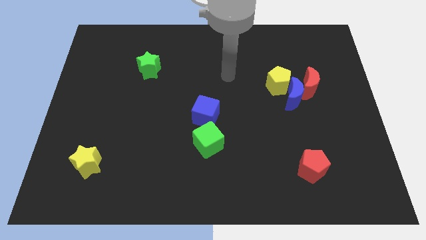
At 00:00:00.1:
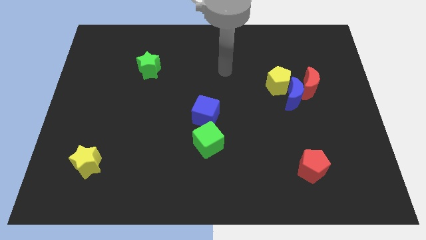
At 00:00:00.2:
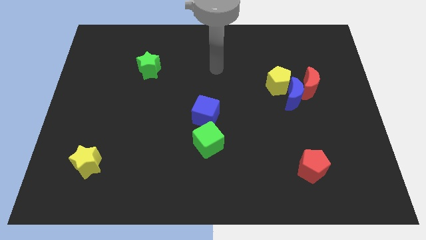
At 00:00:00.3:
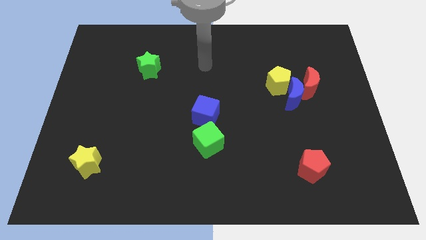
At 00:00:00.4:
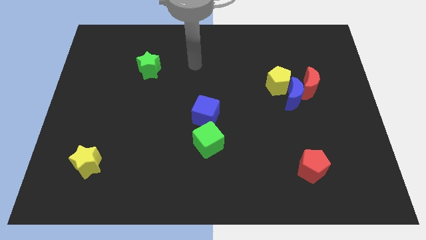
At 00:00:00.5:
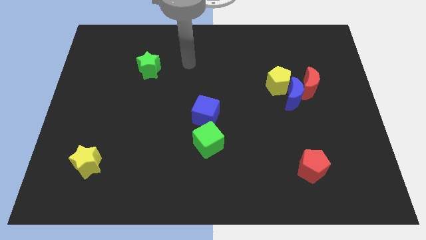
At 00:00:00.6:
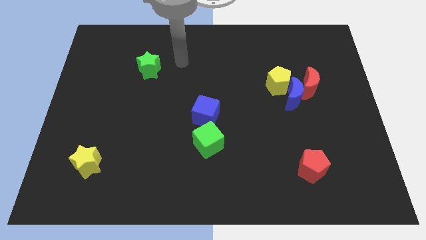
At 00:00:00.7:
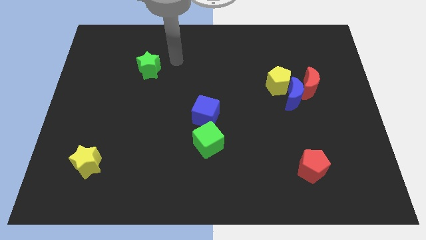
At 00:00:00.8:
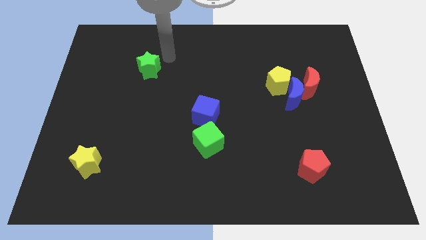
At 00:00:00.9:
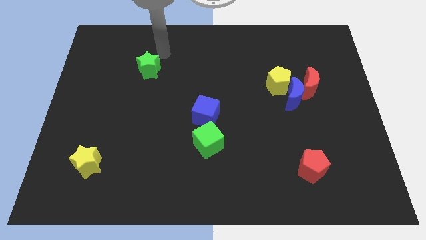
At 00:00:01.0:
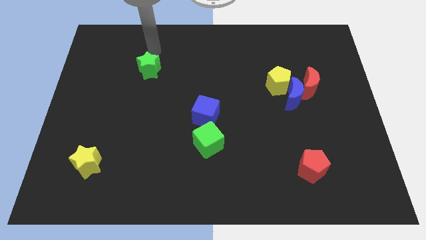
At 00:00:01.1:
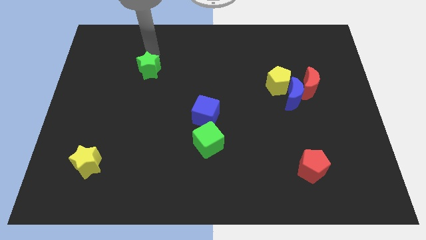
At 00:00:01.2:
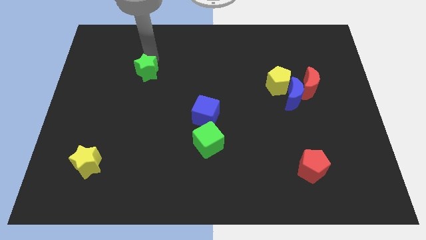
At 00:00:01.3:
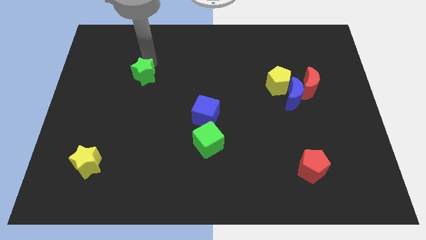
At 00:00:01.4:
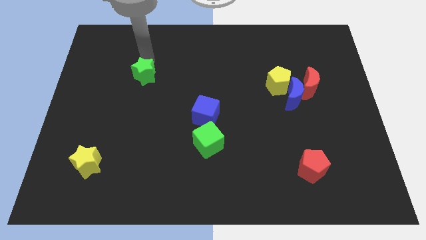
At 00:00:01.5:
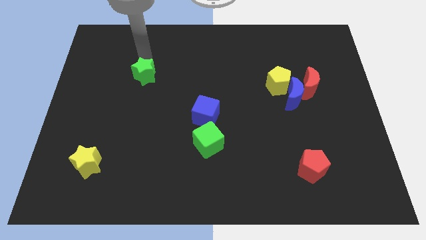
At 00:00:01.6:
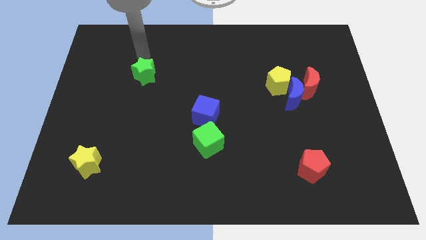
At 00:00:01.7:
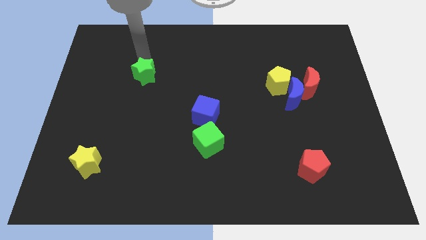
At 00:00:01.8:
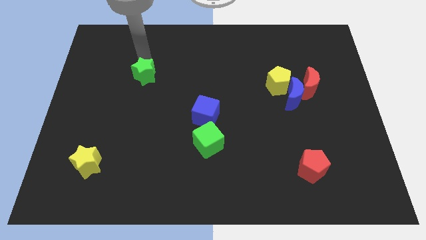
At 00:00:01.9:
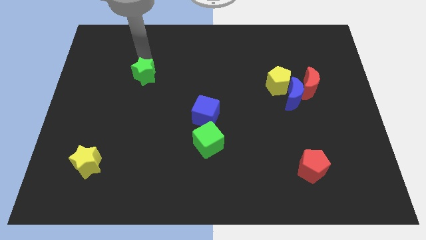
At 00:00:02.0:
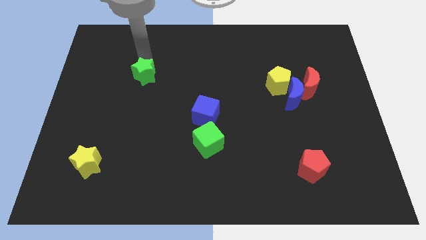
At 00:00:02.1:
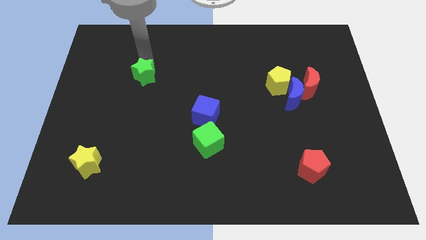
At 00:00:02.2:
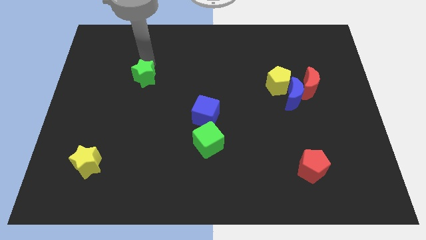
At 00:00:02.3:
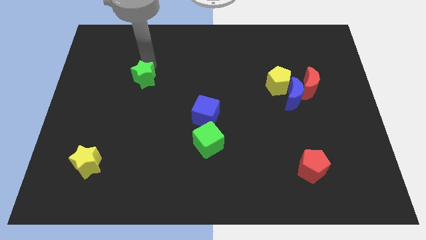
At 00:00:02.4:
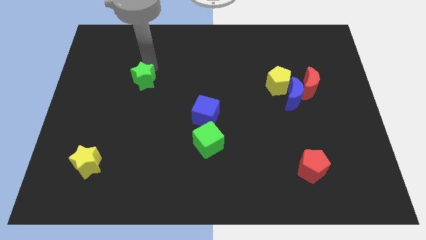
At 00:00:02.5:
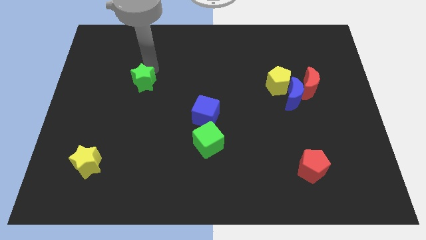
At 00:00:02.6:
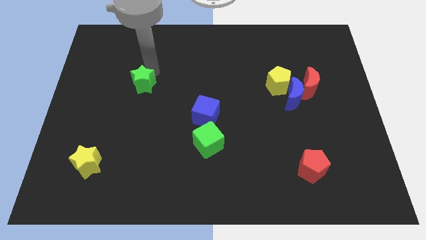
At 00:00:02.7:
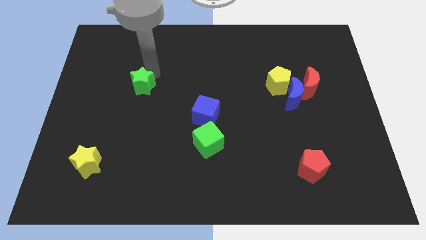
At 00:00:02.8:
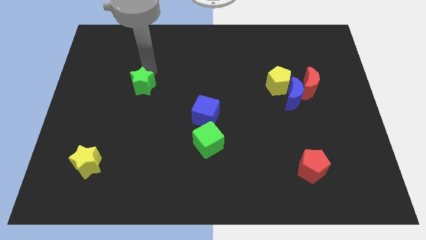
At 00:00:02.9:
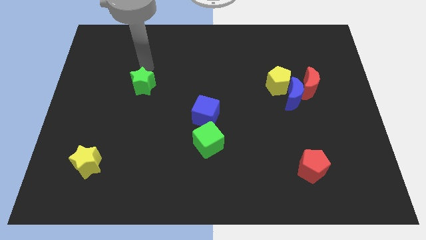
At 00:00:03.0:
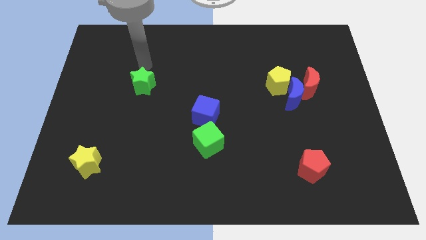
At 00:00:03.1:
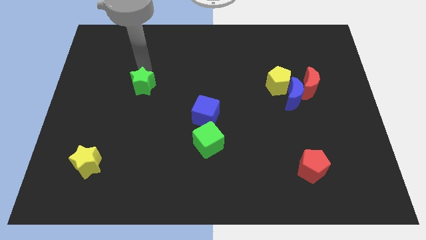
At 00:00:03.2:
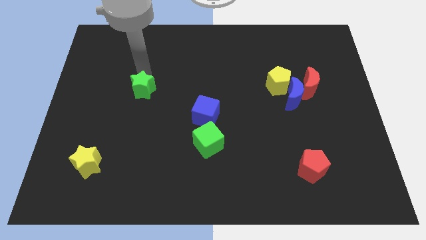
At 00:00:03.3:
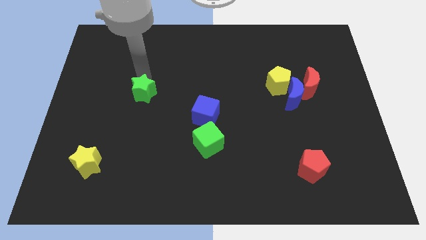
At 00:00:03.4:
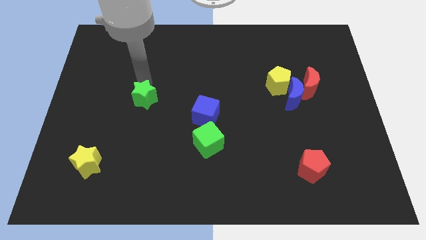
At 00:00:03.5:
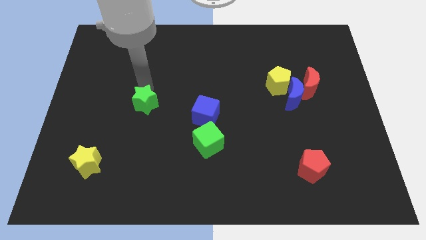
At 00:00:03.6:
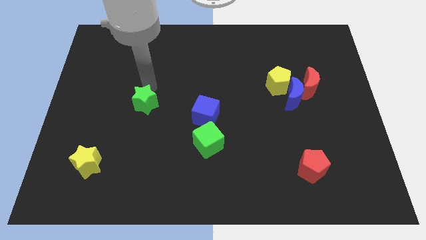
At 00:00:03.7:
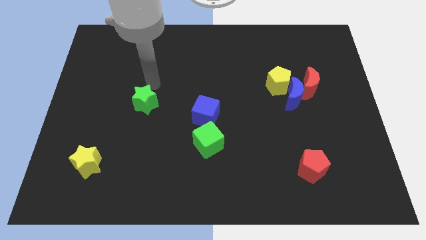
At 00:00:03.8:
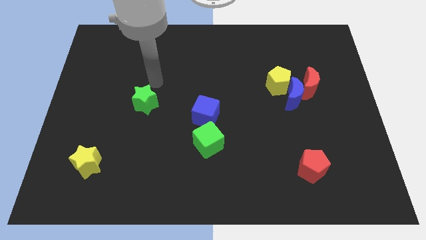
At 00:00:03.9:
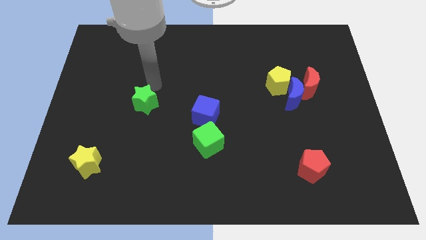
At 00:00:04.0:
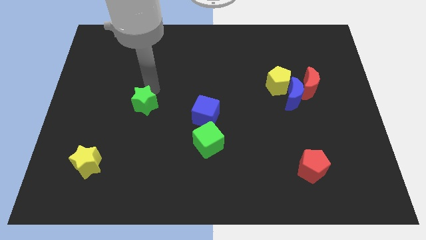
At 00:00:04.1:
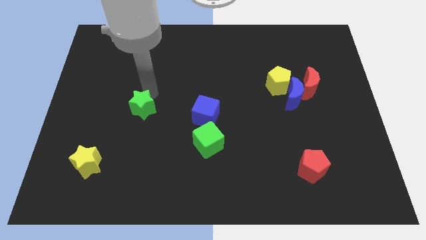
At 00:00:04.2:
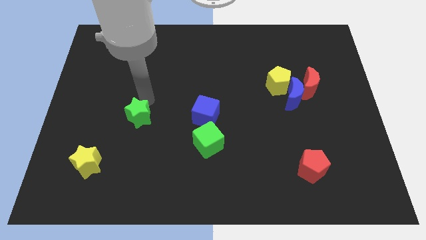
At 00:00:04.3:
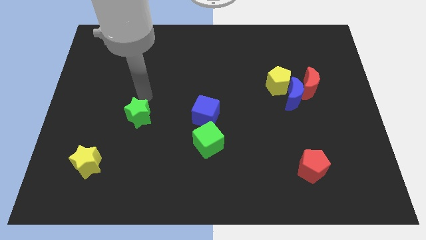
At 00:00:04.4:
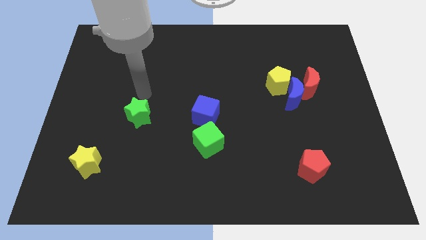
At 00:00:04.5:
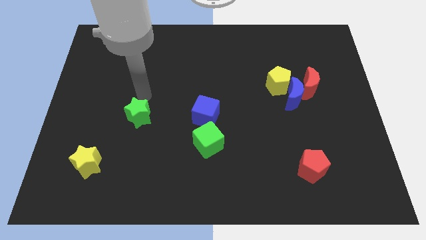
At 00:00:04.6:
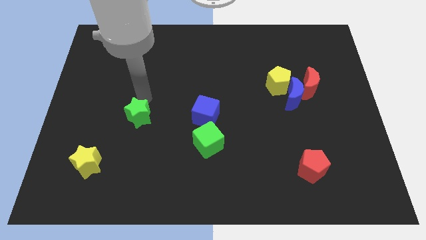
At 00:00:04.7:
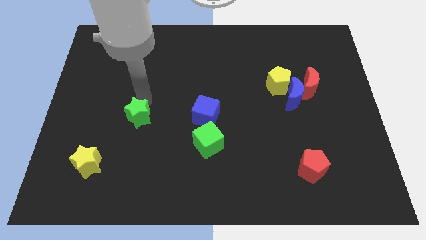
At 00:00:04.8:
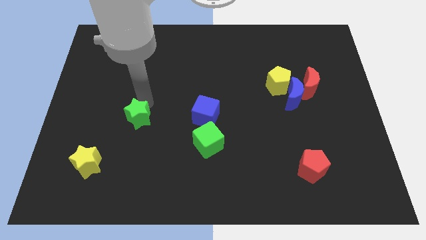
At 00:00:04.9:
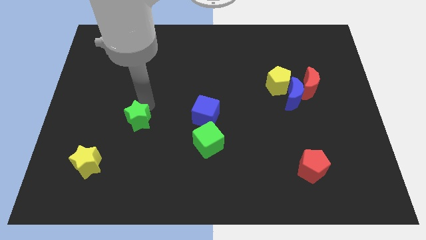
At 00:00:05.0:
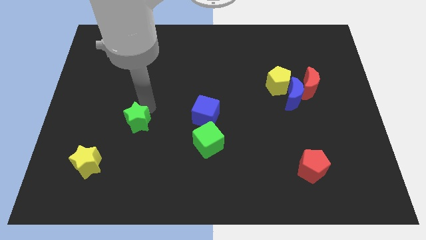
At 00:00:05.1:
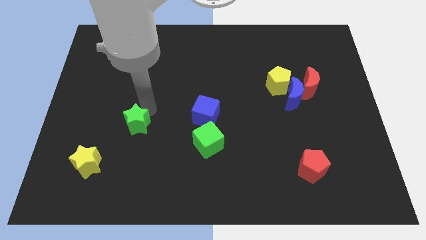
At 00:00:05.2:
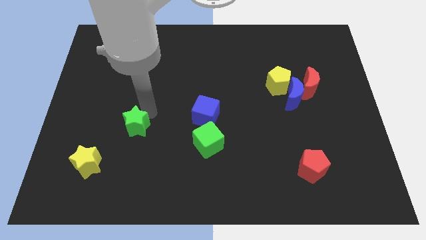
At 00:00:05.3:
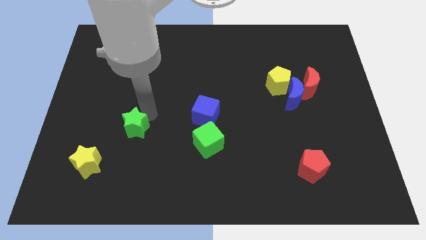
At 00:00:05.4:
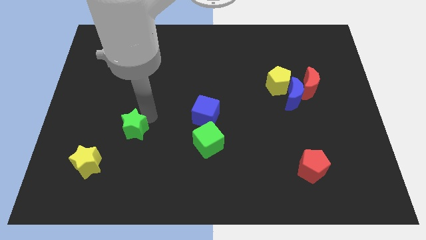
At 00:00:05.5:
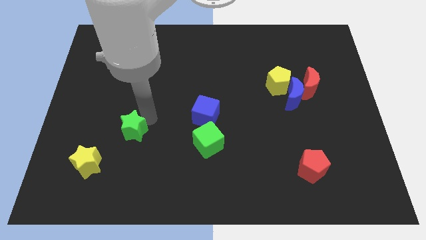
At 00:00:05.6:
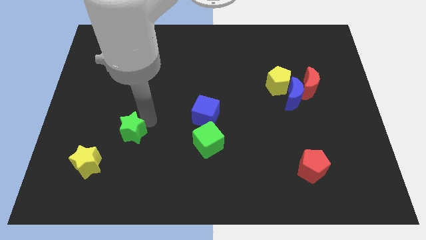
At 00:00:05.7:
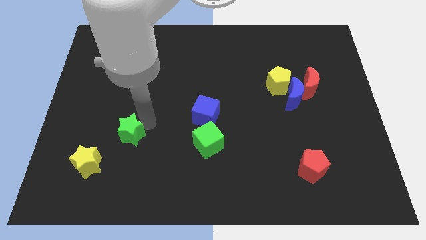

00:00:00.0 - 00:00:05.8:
push the green star down

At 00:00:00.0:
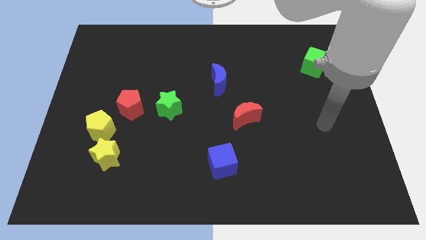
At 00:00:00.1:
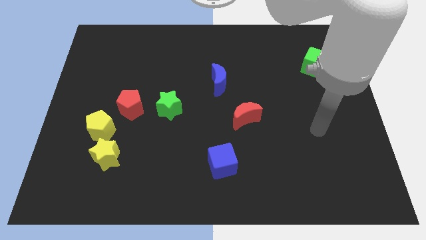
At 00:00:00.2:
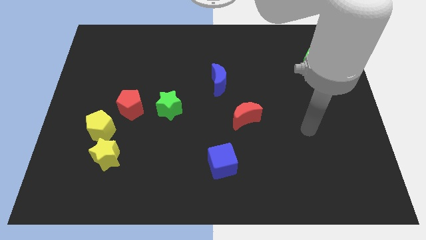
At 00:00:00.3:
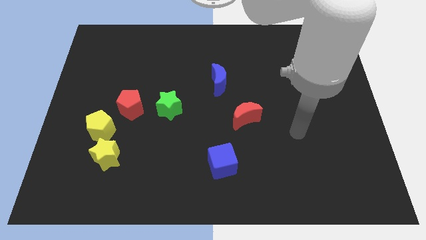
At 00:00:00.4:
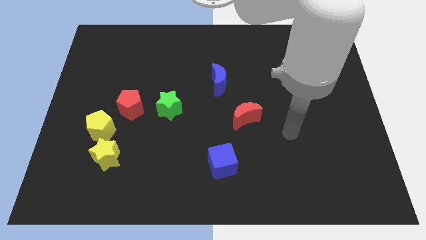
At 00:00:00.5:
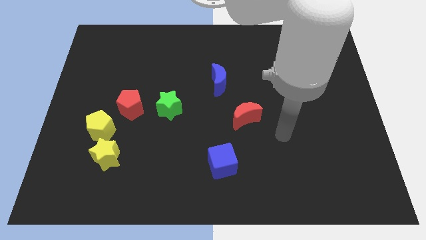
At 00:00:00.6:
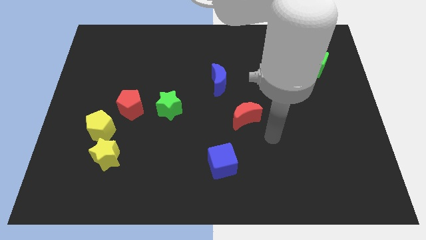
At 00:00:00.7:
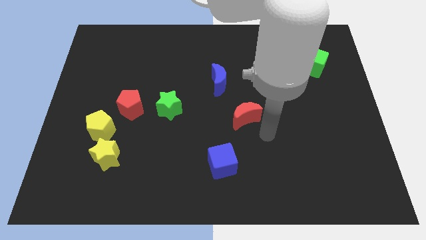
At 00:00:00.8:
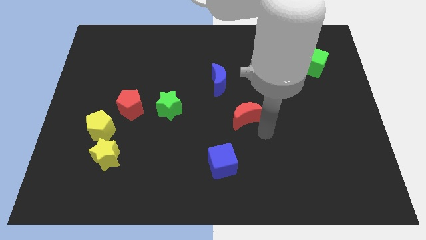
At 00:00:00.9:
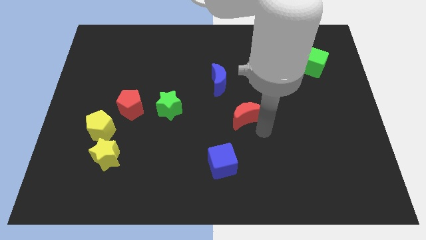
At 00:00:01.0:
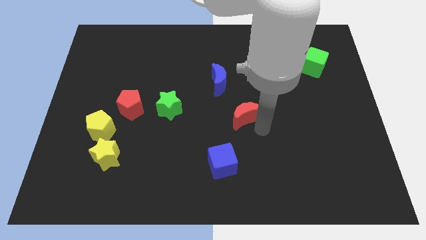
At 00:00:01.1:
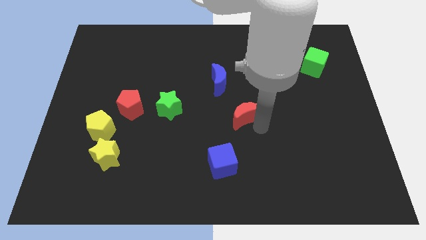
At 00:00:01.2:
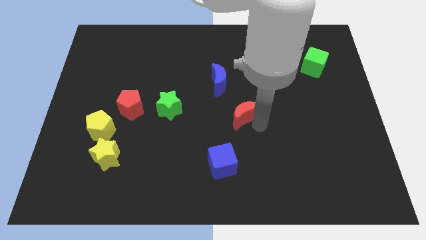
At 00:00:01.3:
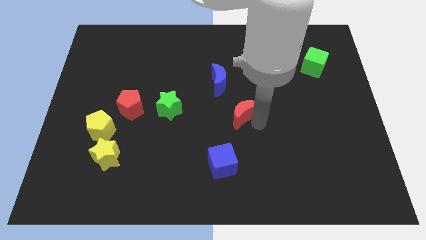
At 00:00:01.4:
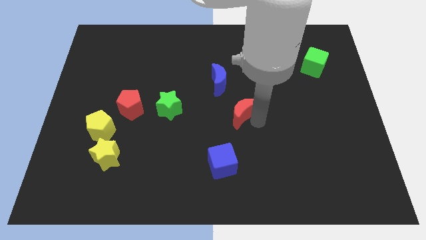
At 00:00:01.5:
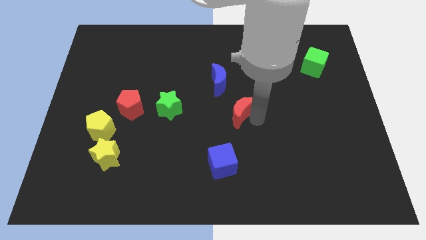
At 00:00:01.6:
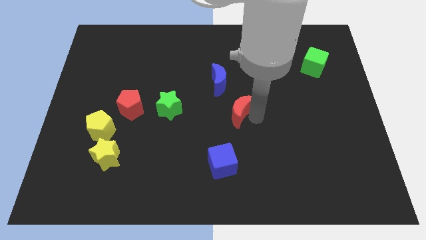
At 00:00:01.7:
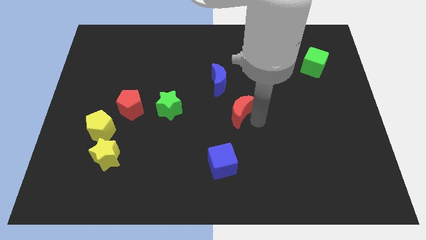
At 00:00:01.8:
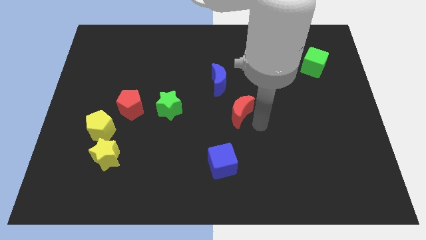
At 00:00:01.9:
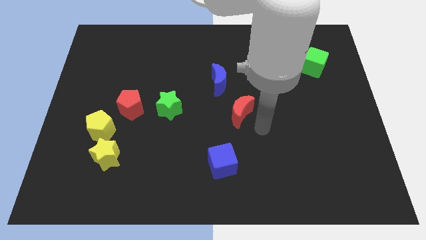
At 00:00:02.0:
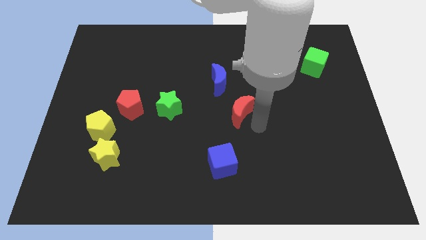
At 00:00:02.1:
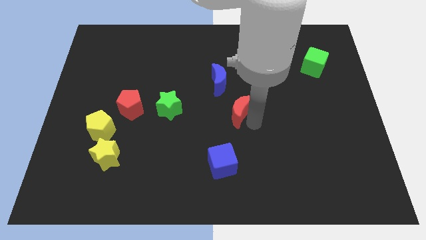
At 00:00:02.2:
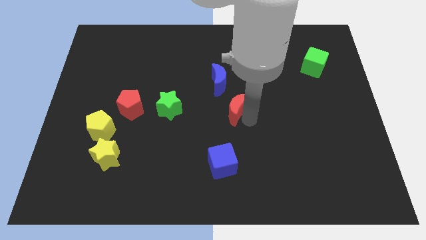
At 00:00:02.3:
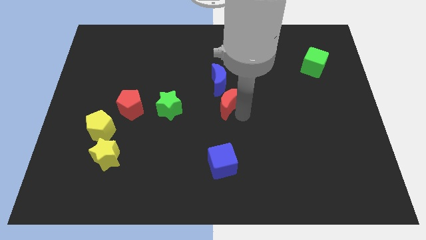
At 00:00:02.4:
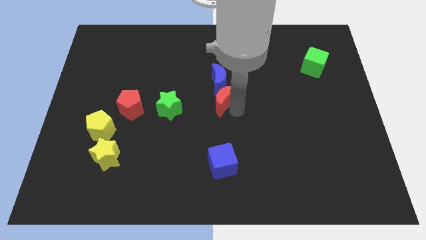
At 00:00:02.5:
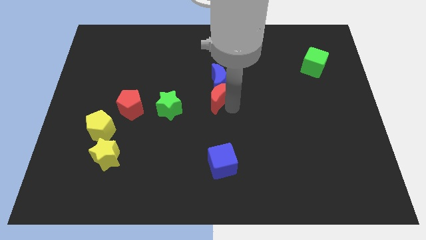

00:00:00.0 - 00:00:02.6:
move the red moon a bit diagonally upwards and to the left
